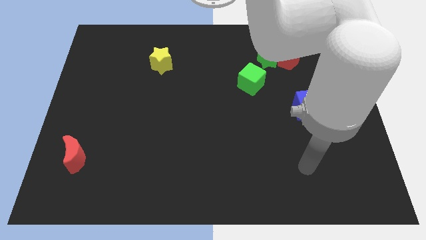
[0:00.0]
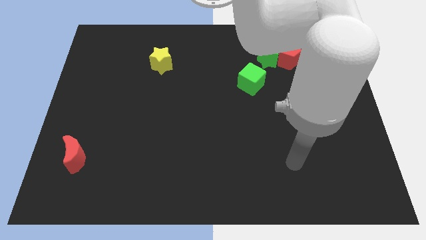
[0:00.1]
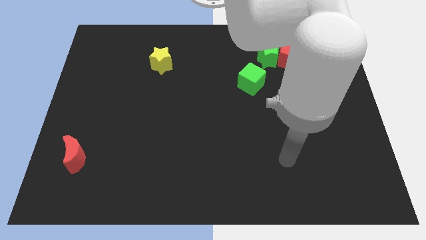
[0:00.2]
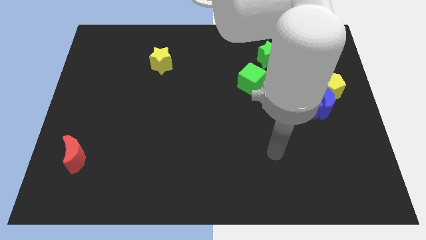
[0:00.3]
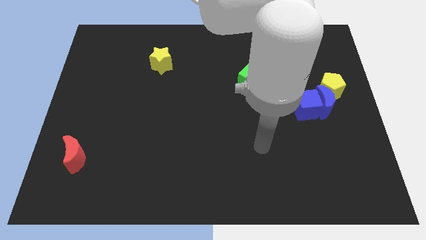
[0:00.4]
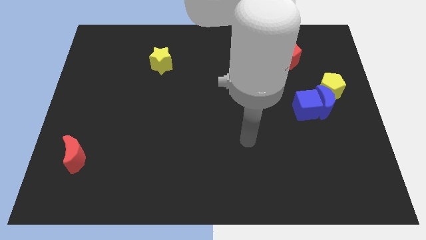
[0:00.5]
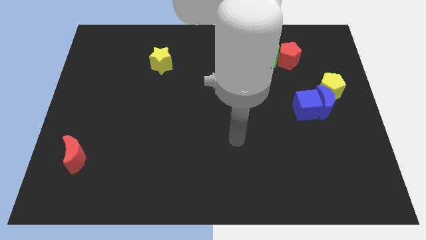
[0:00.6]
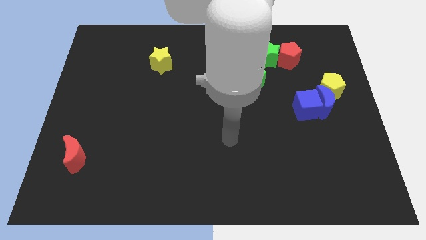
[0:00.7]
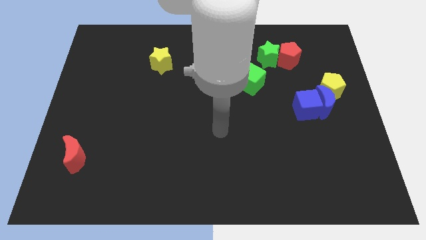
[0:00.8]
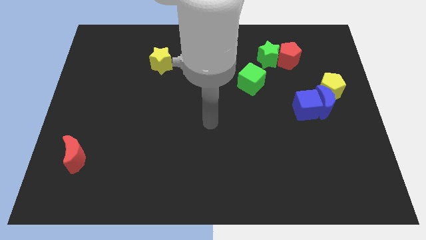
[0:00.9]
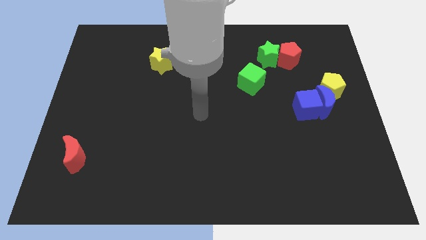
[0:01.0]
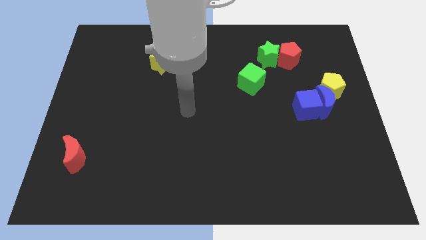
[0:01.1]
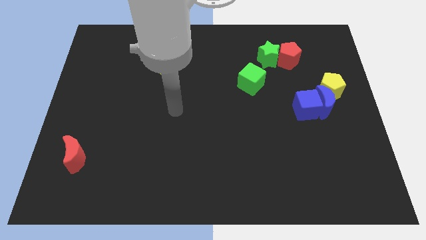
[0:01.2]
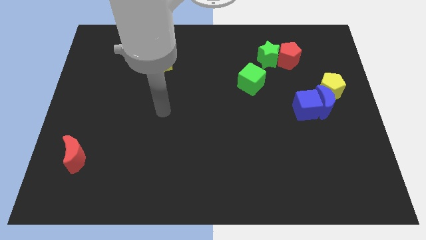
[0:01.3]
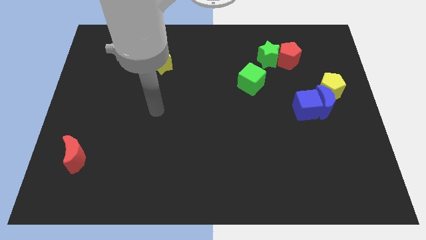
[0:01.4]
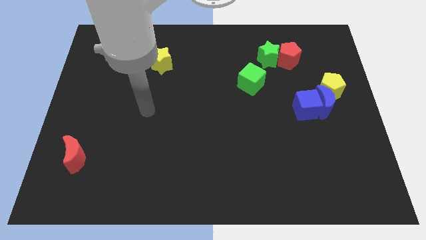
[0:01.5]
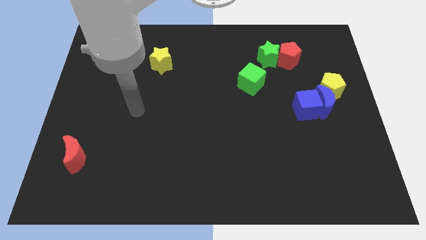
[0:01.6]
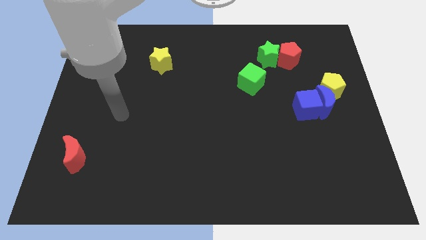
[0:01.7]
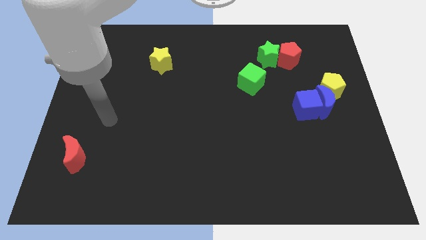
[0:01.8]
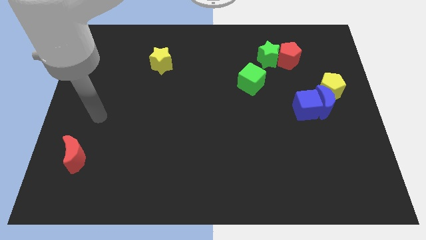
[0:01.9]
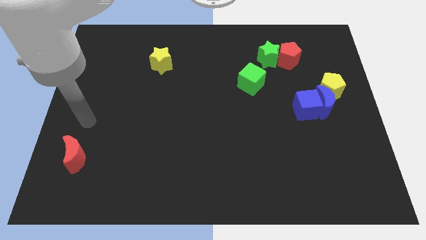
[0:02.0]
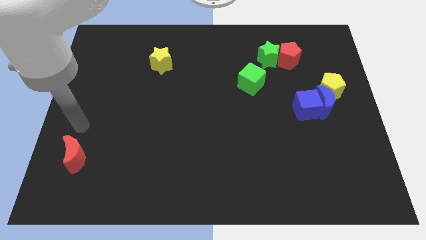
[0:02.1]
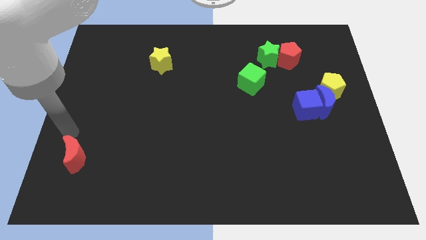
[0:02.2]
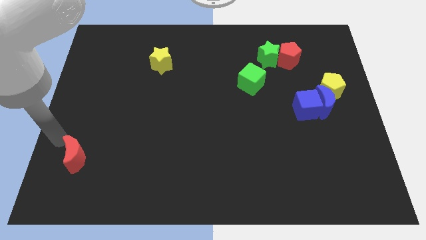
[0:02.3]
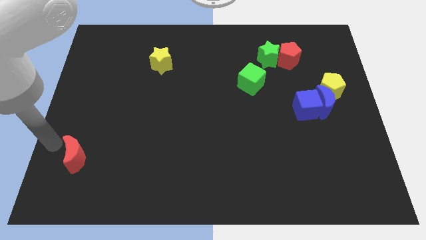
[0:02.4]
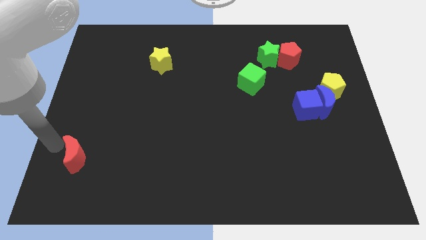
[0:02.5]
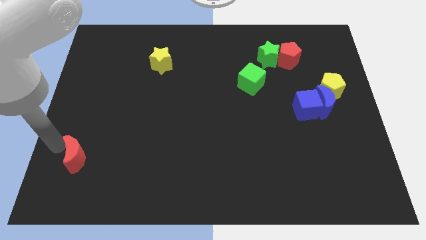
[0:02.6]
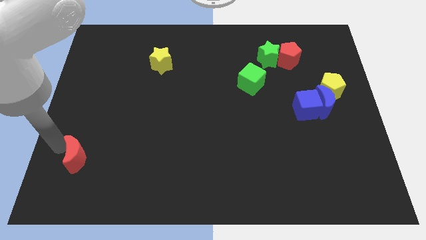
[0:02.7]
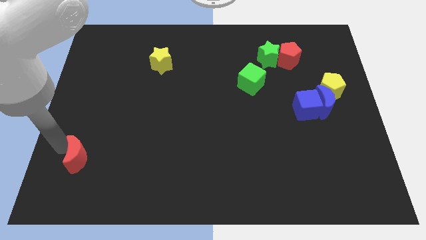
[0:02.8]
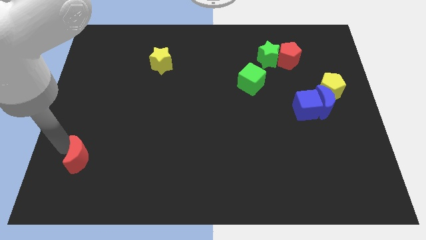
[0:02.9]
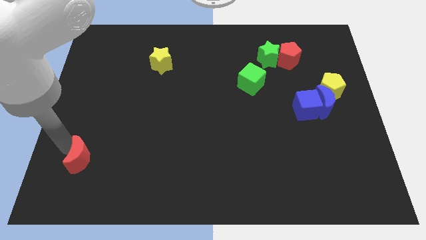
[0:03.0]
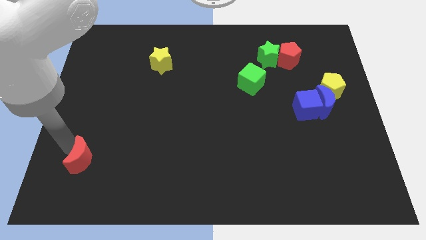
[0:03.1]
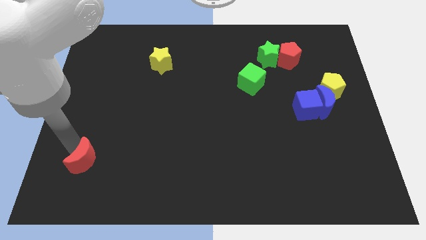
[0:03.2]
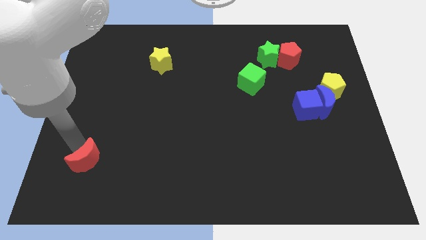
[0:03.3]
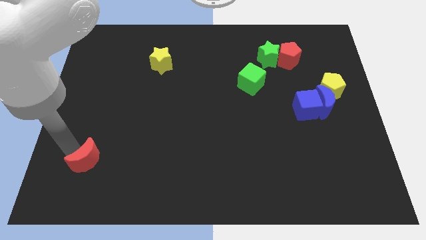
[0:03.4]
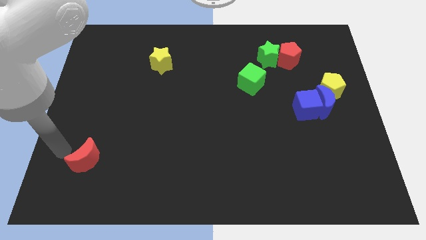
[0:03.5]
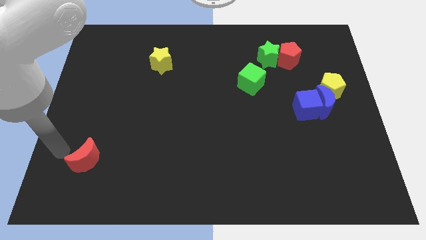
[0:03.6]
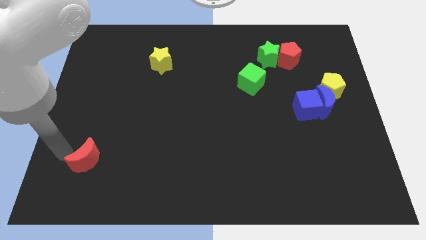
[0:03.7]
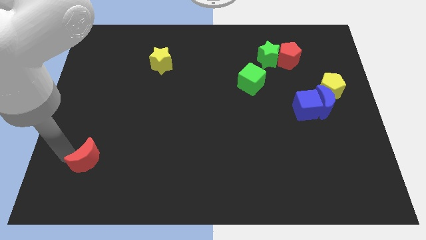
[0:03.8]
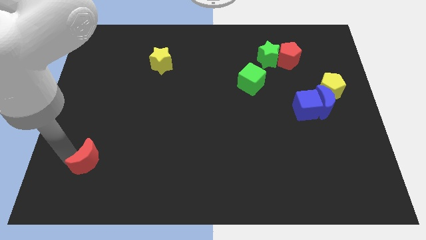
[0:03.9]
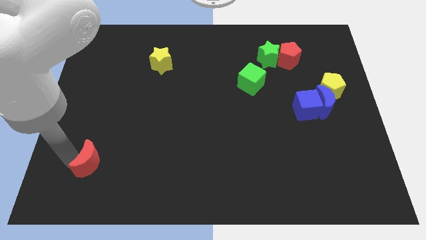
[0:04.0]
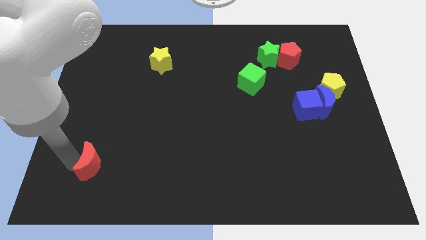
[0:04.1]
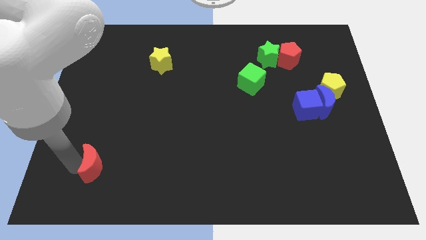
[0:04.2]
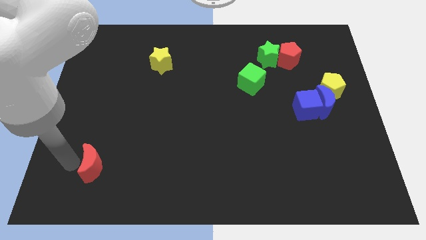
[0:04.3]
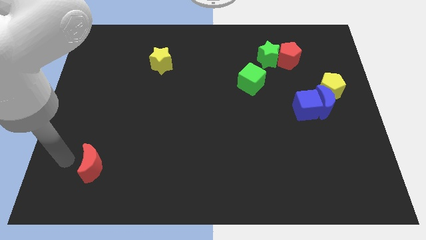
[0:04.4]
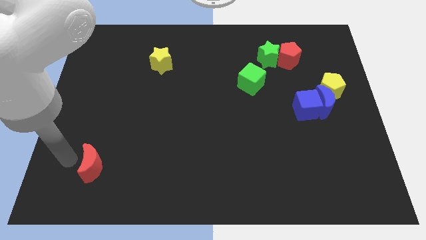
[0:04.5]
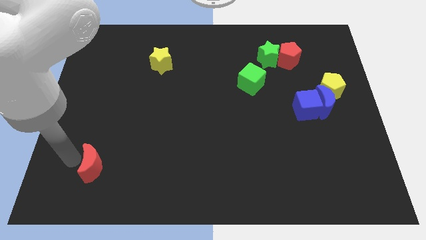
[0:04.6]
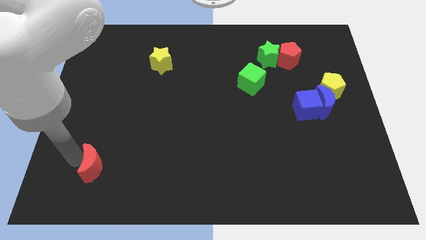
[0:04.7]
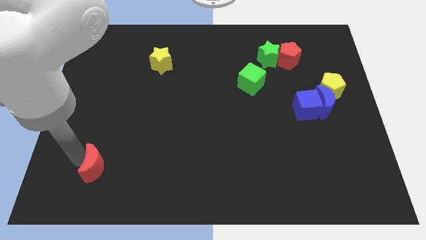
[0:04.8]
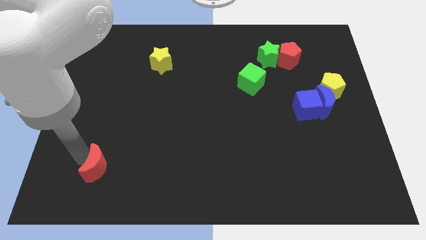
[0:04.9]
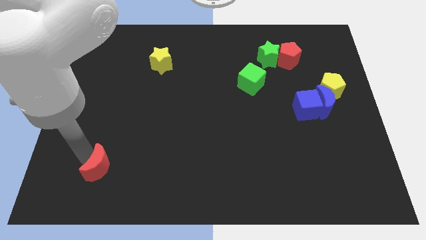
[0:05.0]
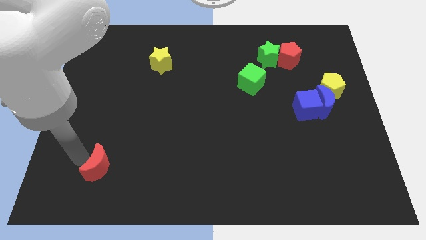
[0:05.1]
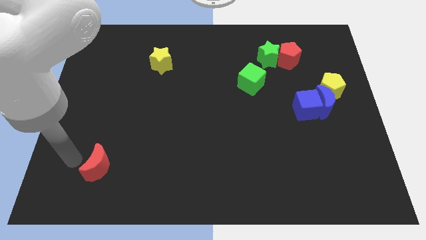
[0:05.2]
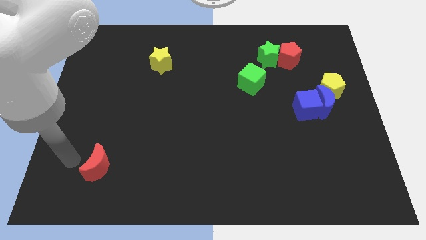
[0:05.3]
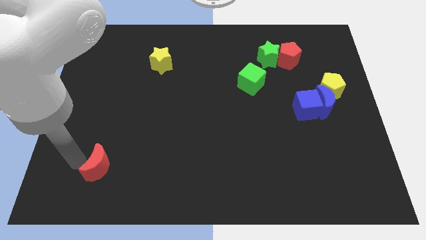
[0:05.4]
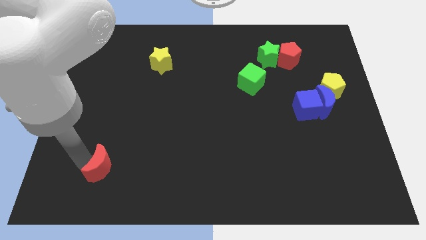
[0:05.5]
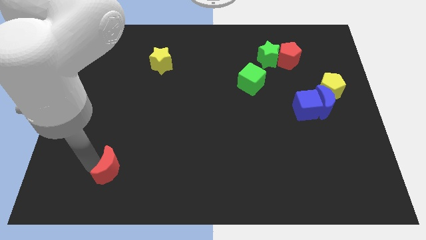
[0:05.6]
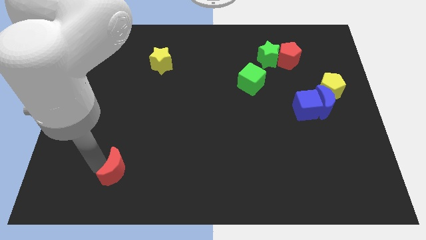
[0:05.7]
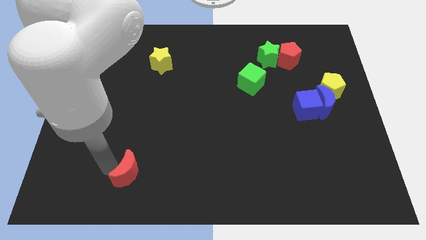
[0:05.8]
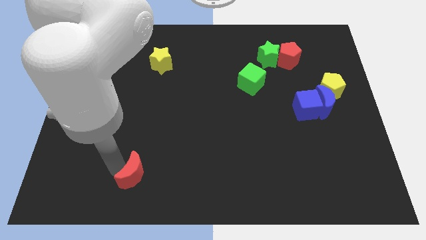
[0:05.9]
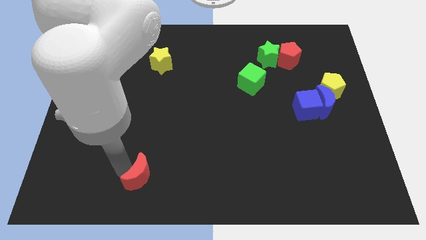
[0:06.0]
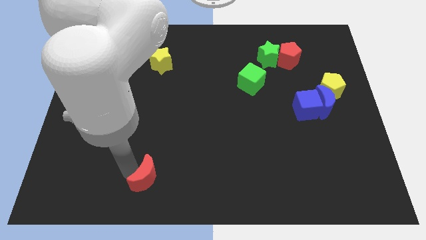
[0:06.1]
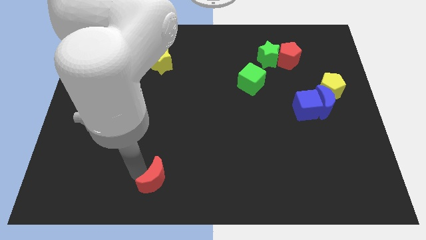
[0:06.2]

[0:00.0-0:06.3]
slide the red moon to the bottom side

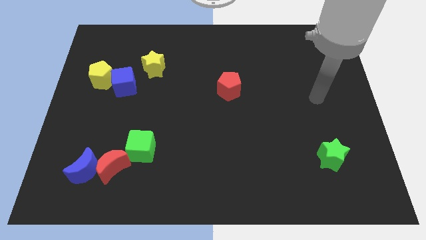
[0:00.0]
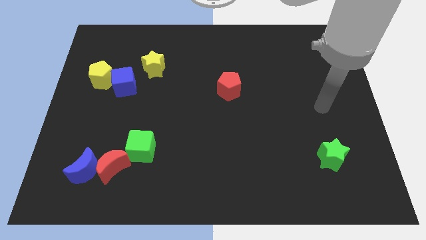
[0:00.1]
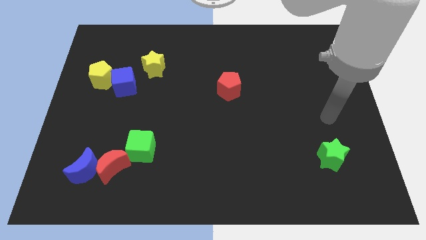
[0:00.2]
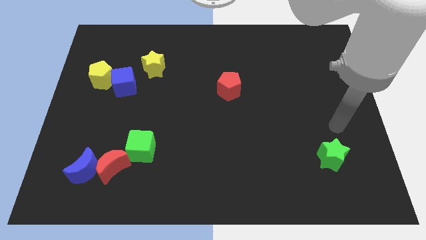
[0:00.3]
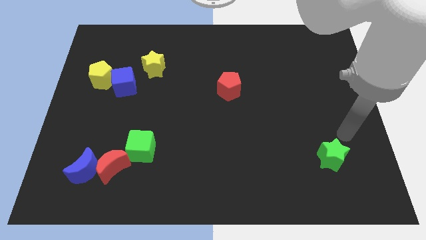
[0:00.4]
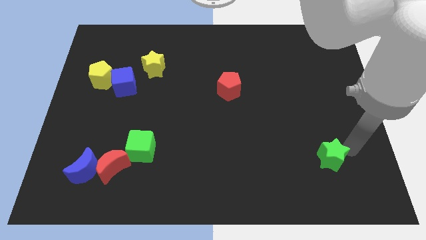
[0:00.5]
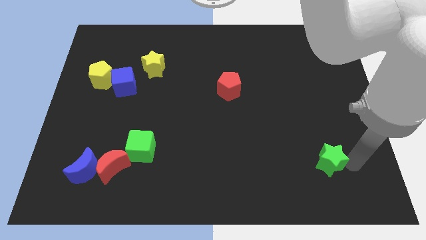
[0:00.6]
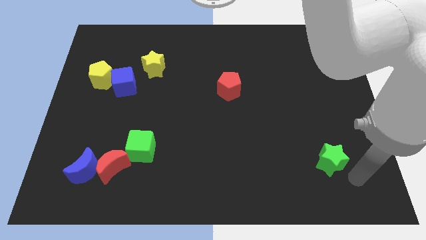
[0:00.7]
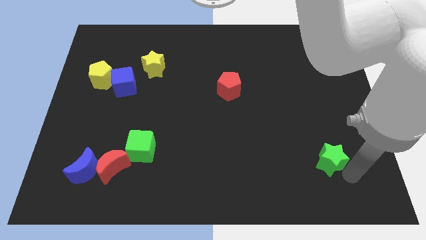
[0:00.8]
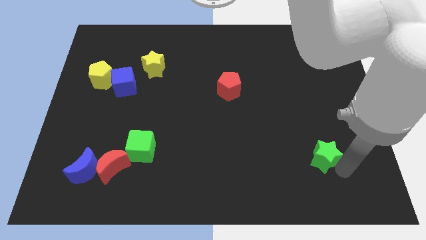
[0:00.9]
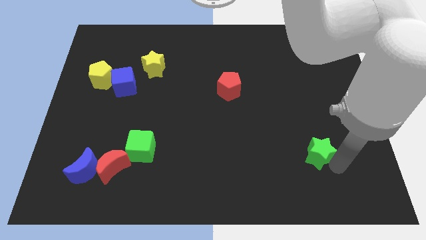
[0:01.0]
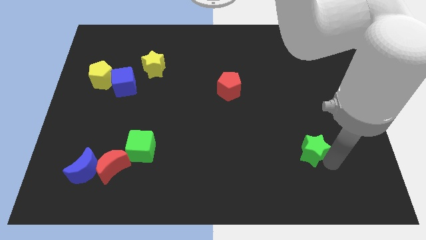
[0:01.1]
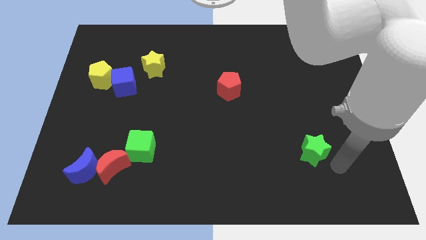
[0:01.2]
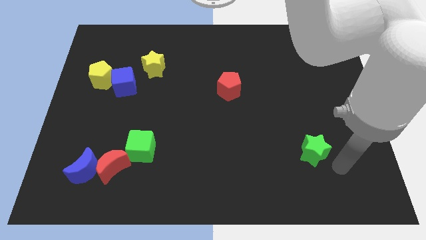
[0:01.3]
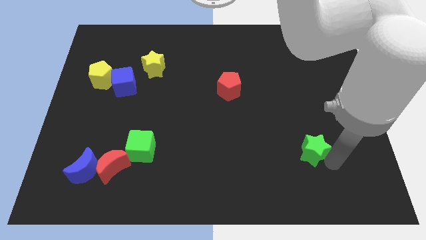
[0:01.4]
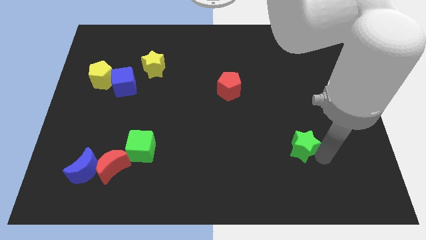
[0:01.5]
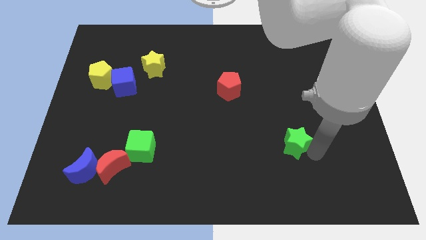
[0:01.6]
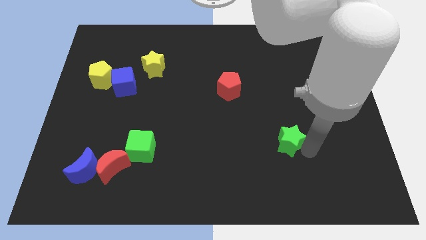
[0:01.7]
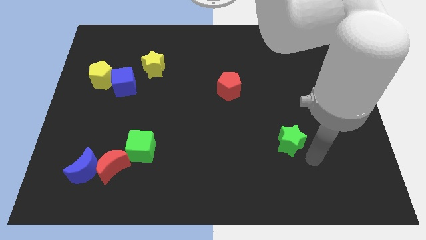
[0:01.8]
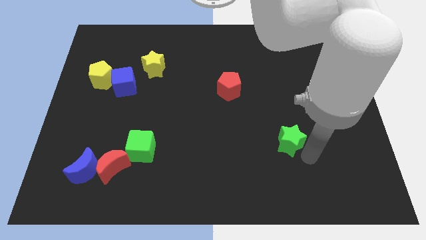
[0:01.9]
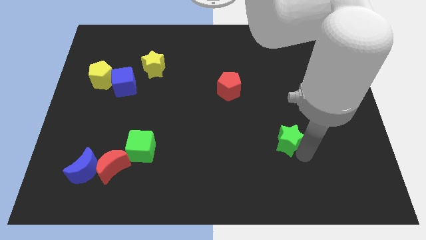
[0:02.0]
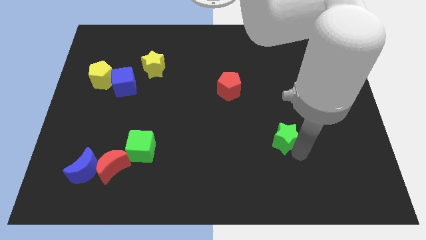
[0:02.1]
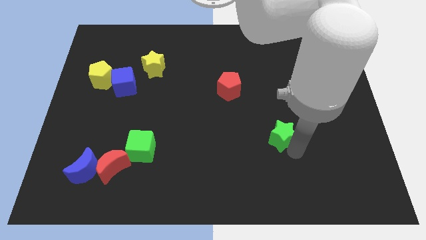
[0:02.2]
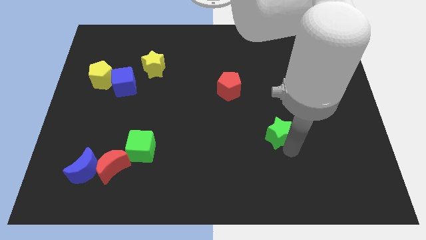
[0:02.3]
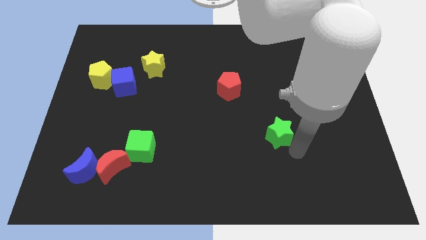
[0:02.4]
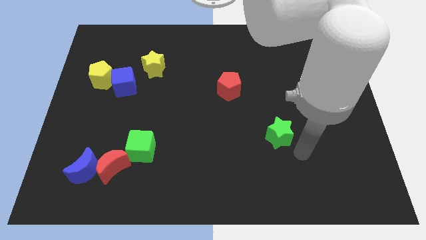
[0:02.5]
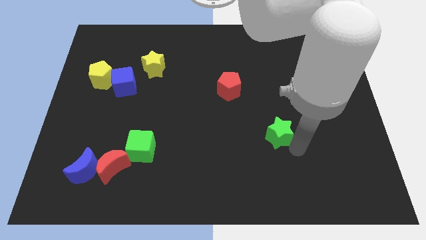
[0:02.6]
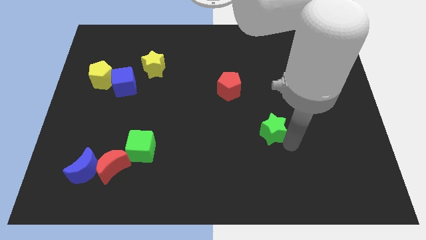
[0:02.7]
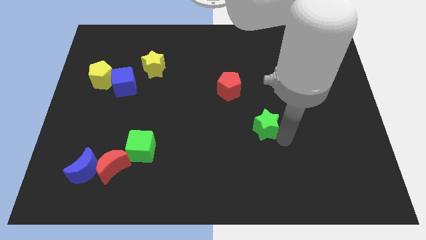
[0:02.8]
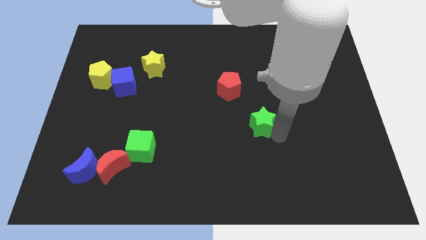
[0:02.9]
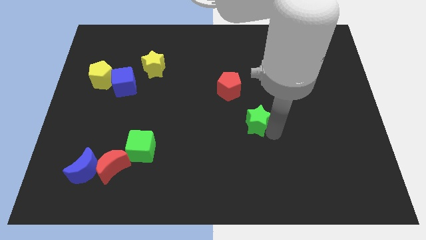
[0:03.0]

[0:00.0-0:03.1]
slide the green star to the middle
